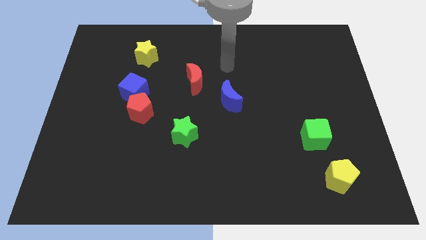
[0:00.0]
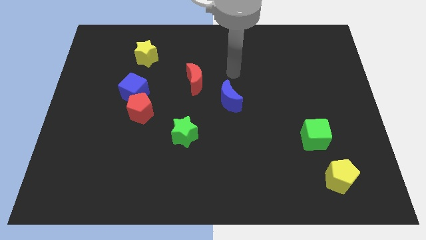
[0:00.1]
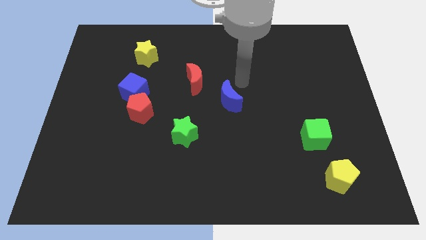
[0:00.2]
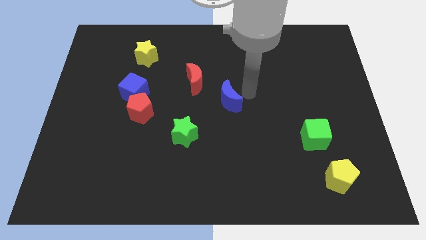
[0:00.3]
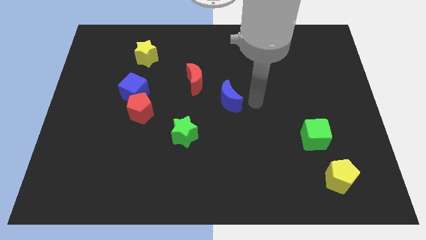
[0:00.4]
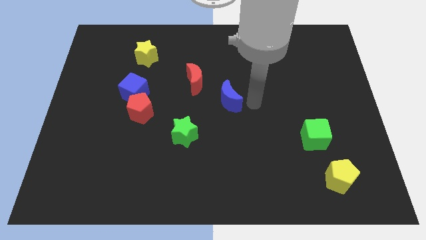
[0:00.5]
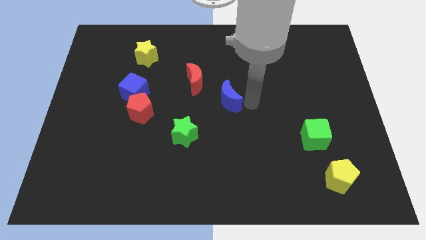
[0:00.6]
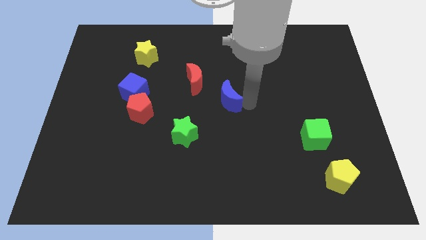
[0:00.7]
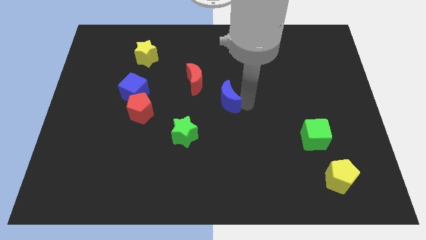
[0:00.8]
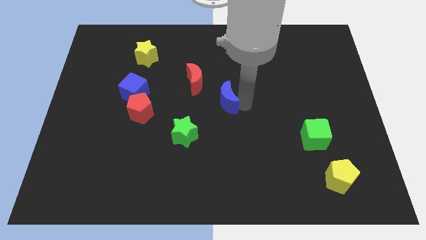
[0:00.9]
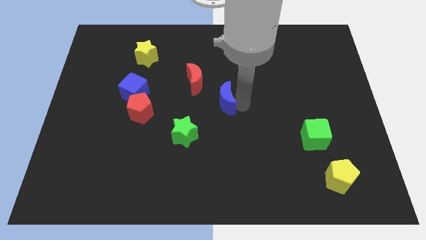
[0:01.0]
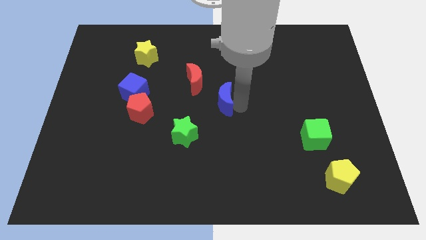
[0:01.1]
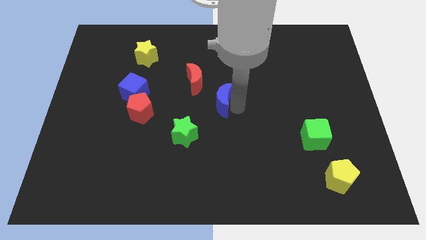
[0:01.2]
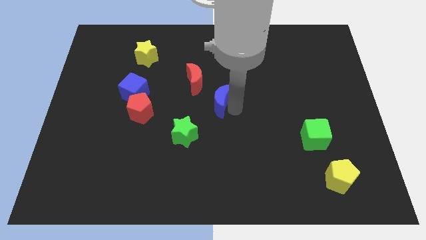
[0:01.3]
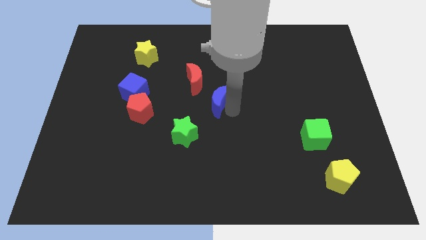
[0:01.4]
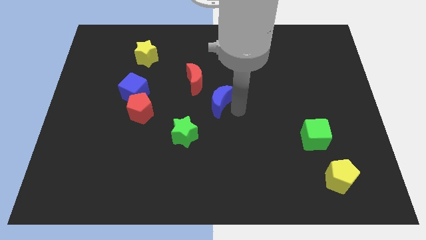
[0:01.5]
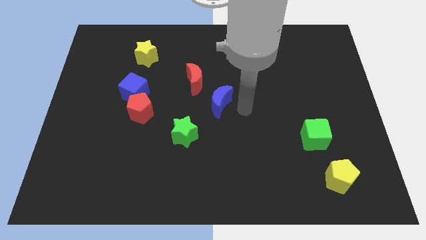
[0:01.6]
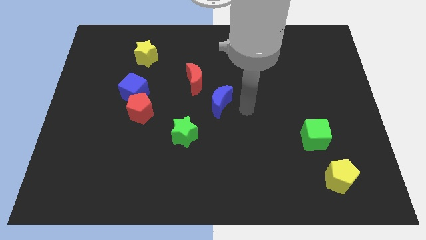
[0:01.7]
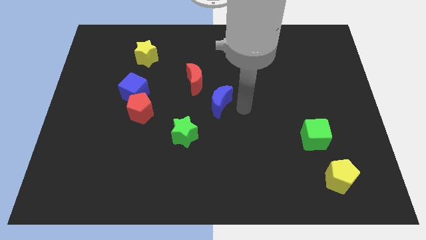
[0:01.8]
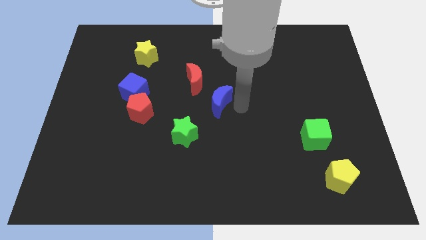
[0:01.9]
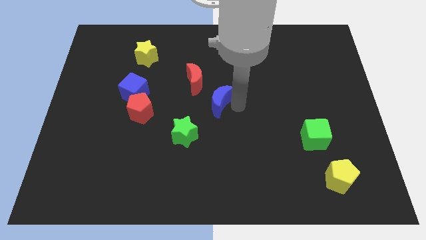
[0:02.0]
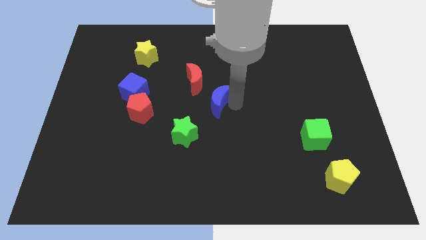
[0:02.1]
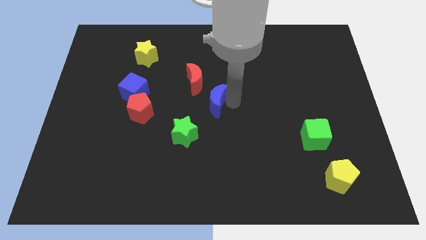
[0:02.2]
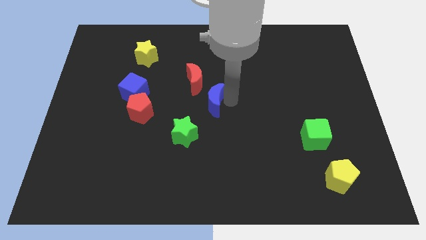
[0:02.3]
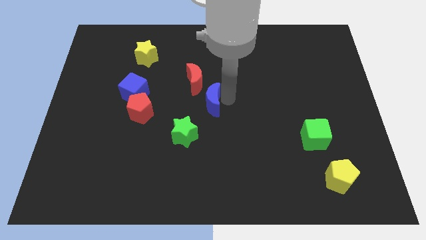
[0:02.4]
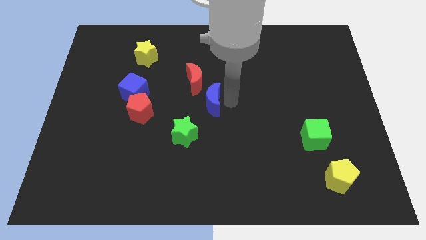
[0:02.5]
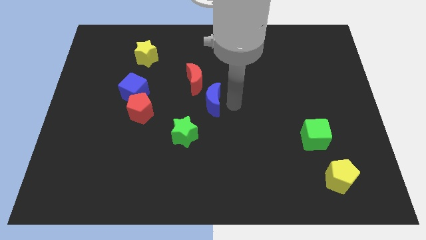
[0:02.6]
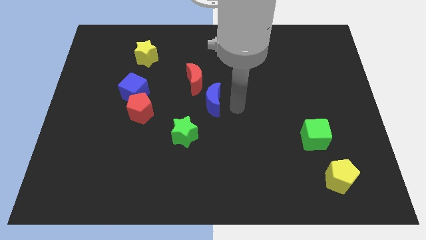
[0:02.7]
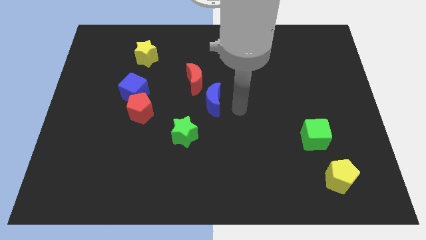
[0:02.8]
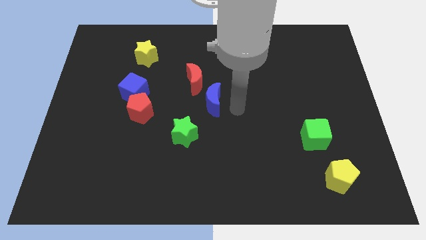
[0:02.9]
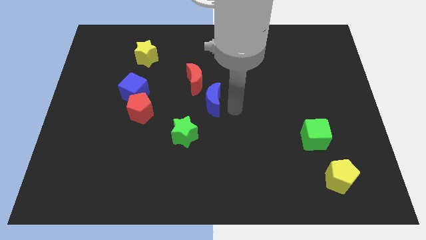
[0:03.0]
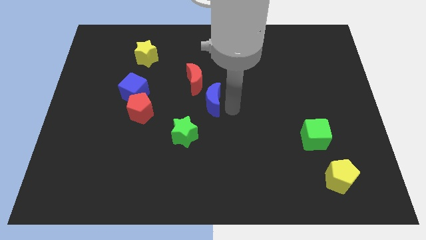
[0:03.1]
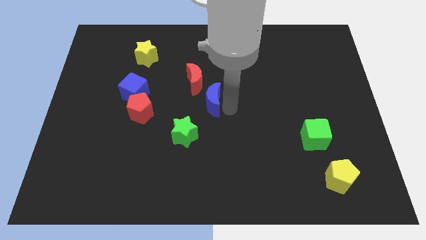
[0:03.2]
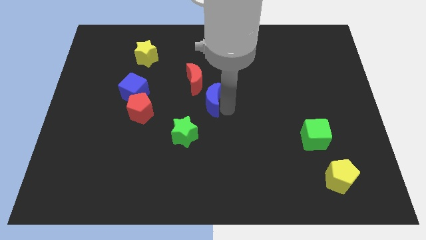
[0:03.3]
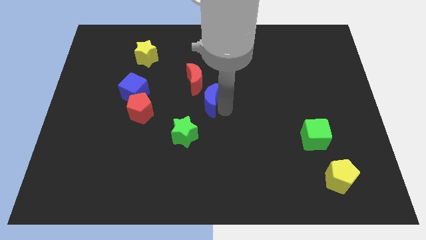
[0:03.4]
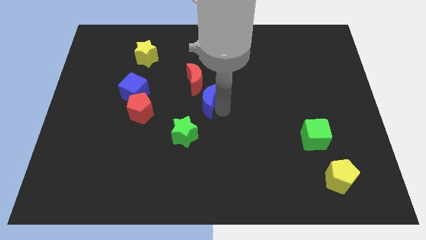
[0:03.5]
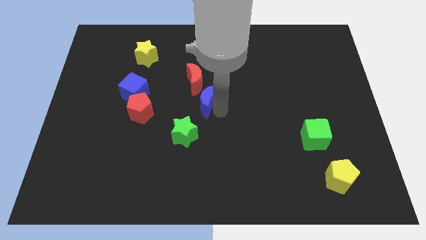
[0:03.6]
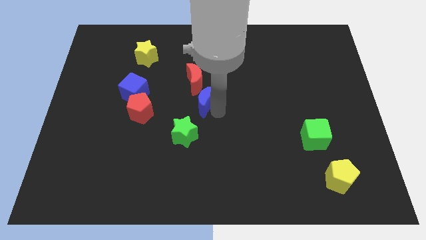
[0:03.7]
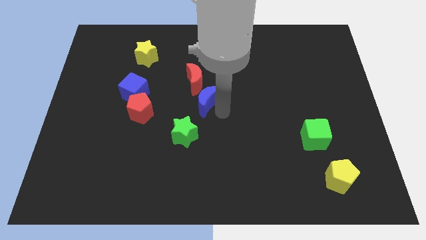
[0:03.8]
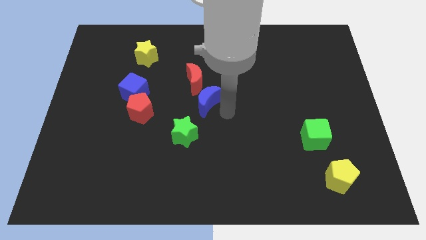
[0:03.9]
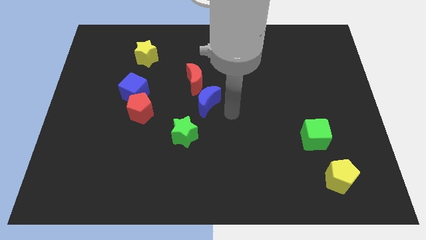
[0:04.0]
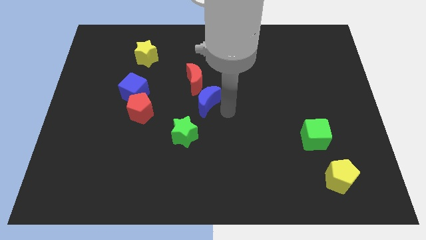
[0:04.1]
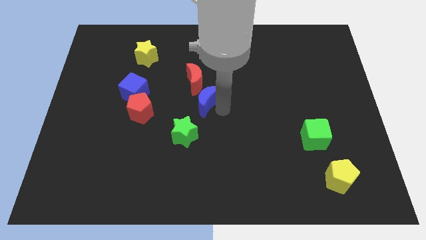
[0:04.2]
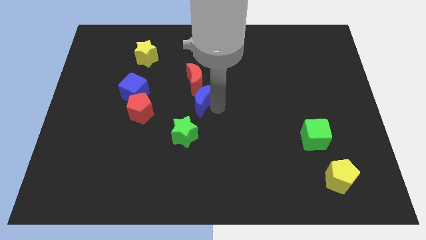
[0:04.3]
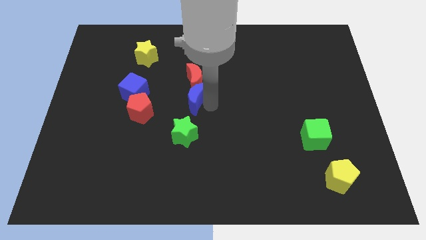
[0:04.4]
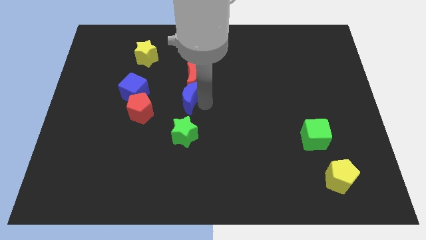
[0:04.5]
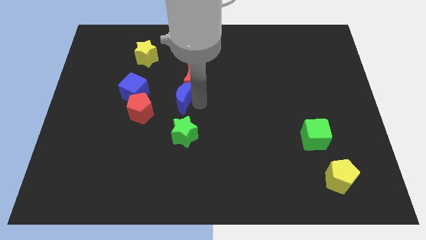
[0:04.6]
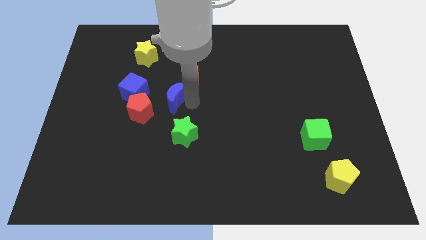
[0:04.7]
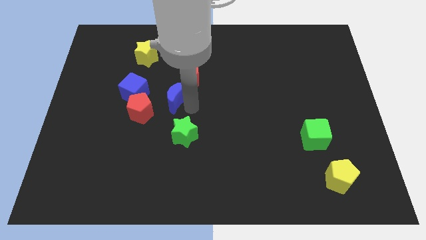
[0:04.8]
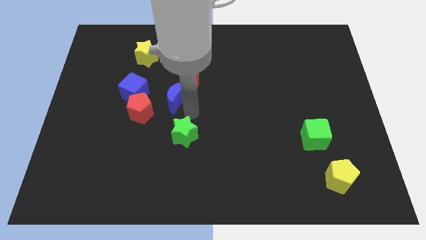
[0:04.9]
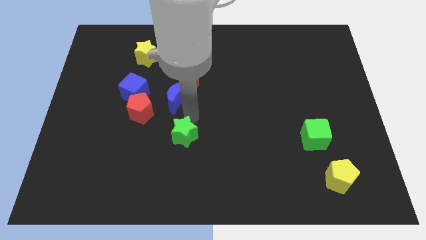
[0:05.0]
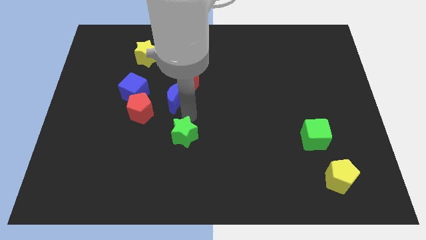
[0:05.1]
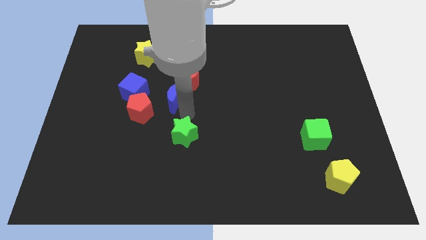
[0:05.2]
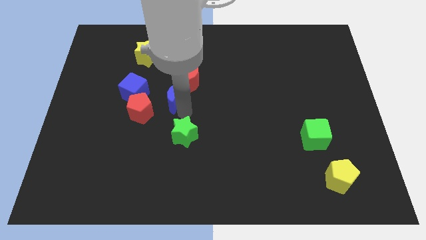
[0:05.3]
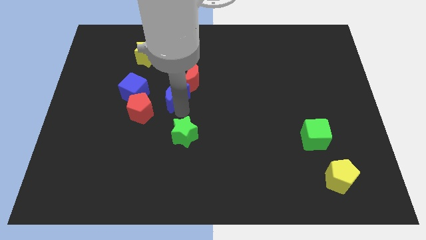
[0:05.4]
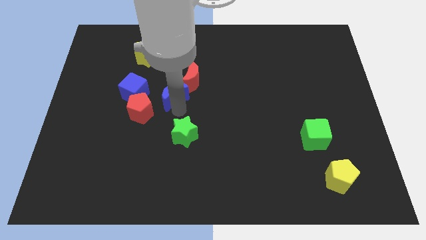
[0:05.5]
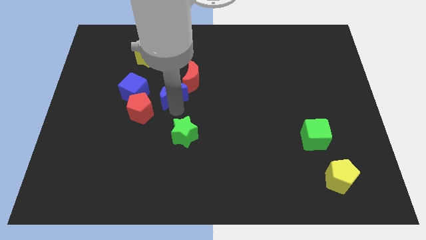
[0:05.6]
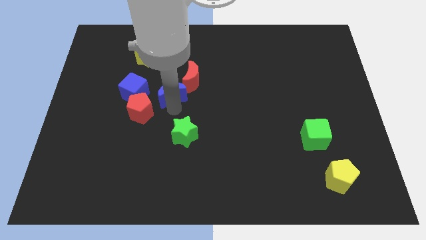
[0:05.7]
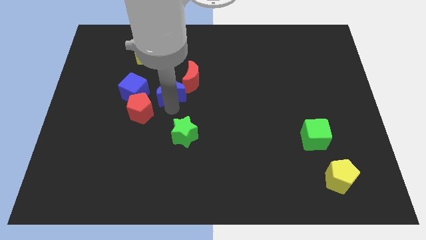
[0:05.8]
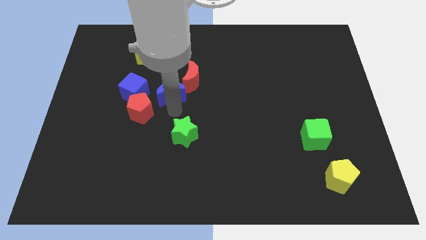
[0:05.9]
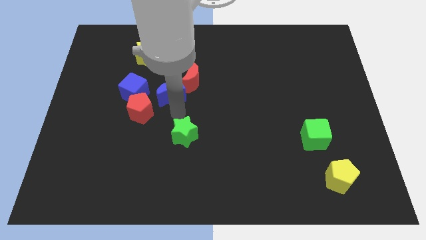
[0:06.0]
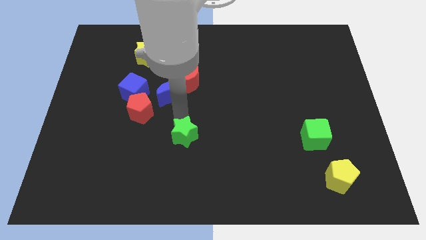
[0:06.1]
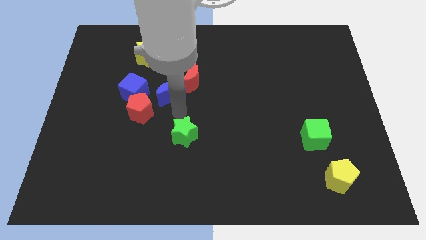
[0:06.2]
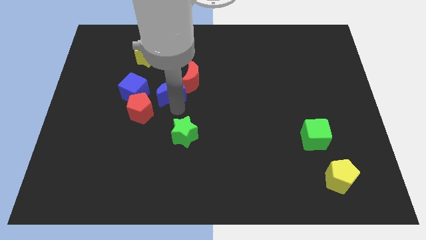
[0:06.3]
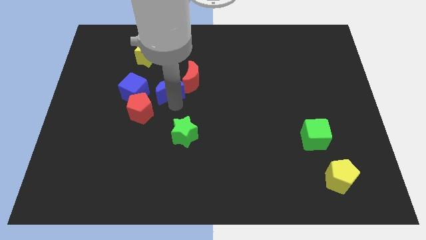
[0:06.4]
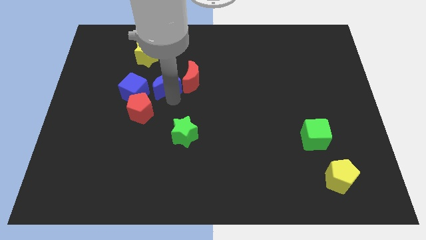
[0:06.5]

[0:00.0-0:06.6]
slide the blue moon diagonally up and to the right of the blue cube

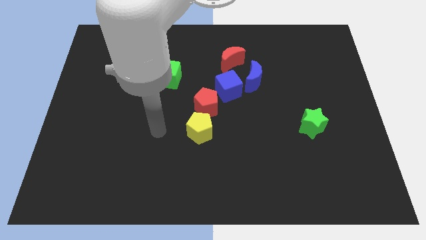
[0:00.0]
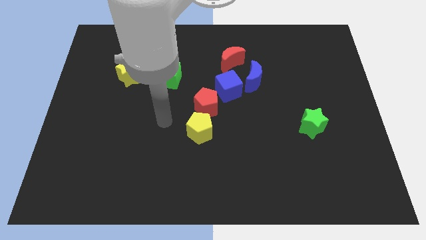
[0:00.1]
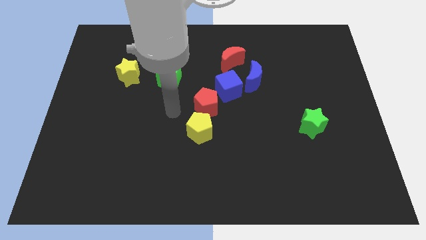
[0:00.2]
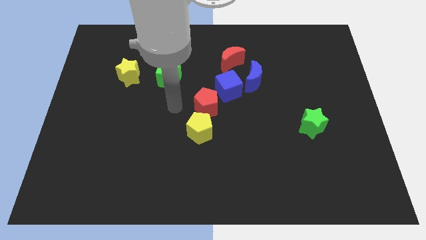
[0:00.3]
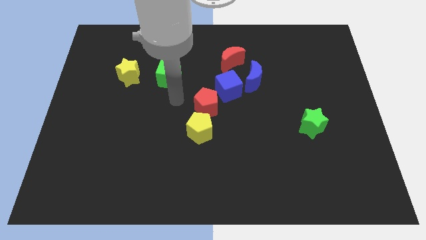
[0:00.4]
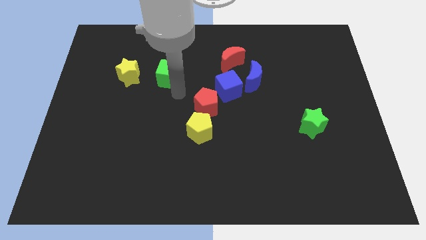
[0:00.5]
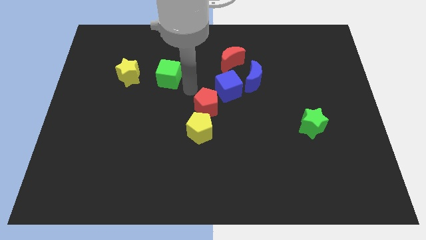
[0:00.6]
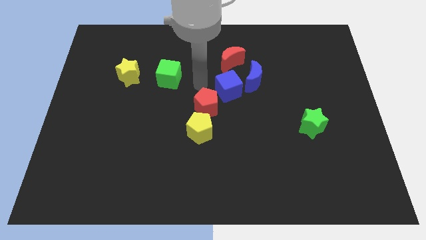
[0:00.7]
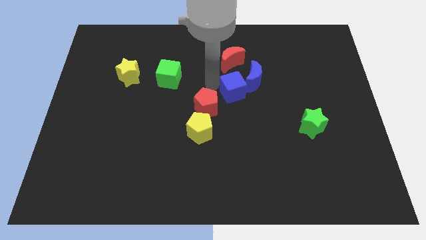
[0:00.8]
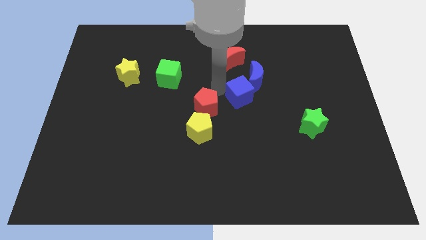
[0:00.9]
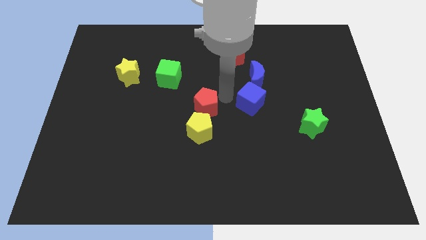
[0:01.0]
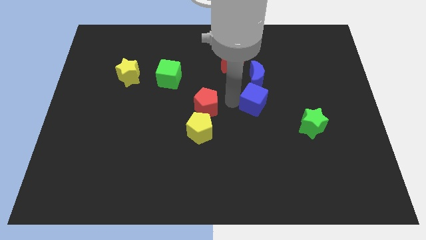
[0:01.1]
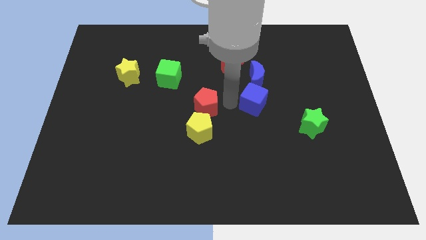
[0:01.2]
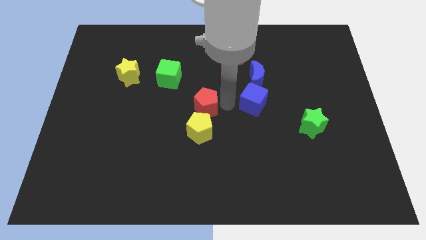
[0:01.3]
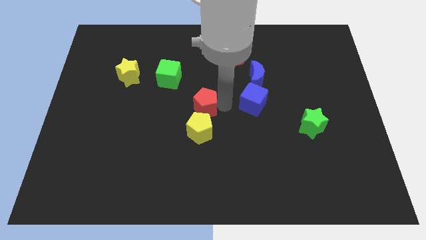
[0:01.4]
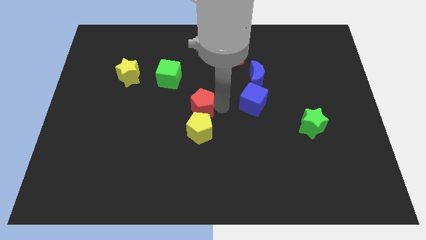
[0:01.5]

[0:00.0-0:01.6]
push the red pentagon diagonally up and to the left of the yellow pentagon
